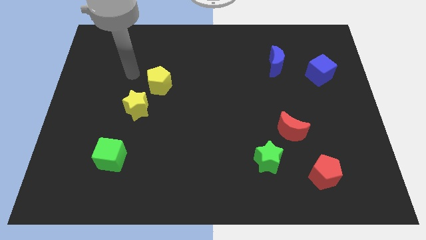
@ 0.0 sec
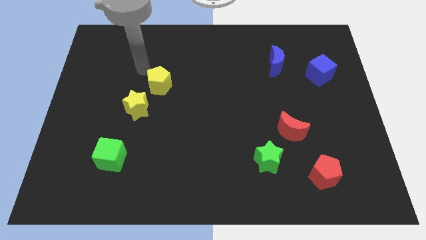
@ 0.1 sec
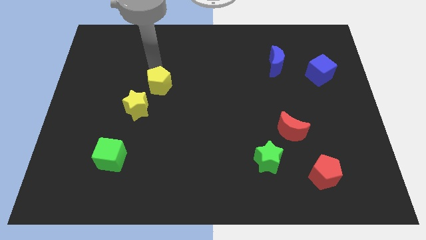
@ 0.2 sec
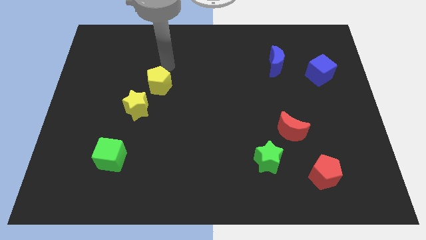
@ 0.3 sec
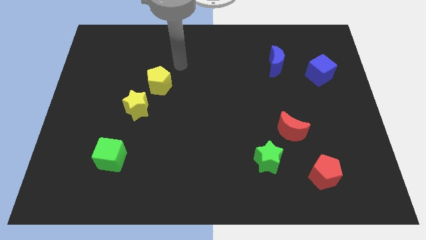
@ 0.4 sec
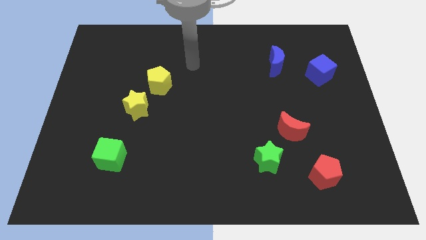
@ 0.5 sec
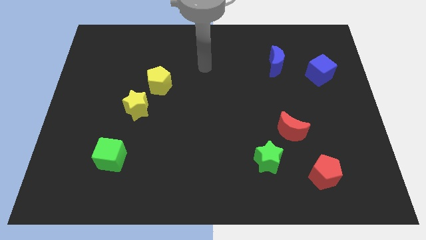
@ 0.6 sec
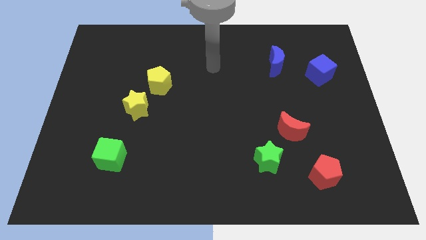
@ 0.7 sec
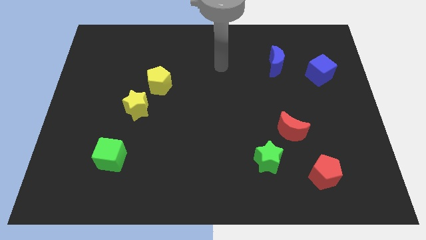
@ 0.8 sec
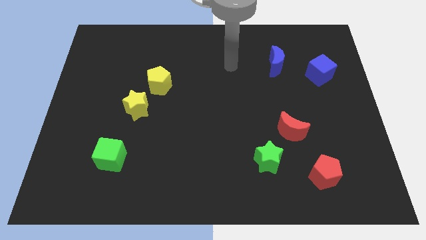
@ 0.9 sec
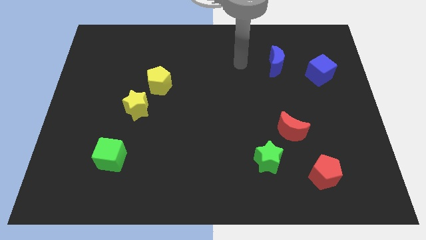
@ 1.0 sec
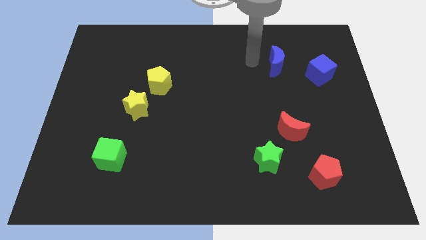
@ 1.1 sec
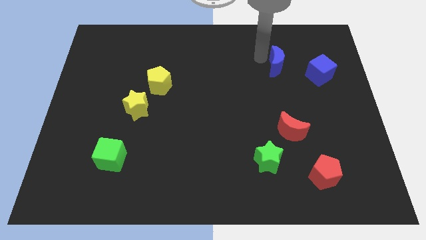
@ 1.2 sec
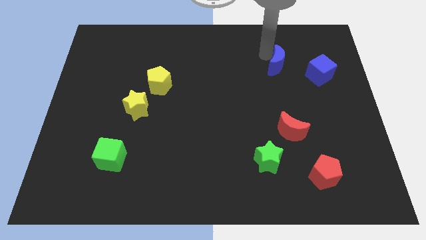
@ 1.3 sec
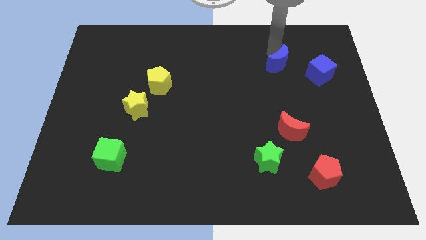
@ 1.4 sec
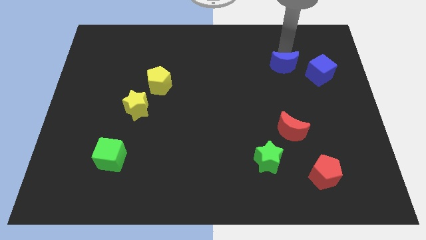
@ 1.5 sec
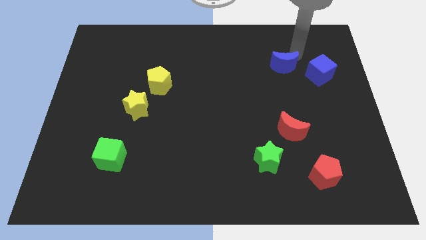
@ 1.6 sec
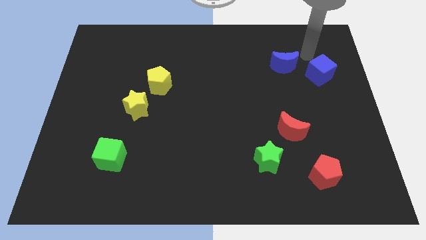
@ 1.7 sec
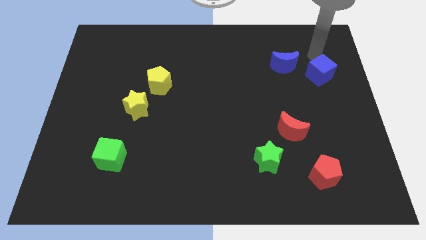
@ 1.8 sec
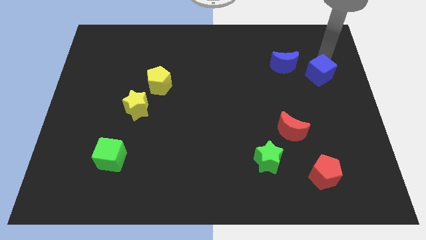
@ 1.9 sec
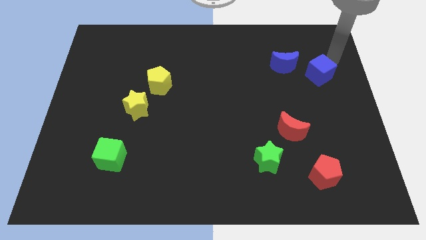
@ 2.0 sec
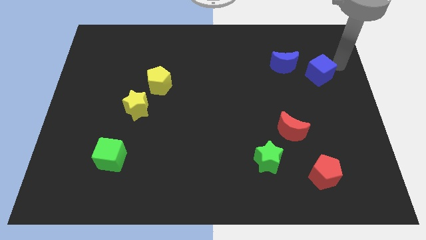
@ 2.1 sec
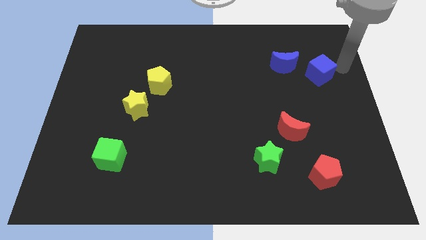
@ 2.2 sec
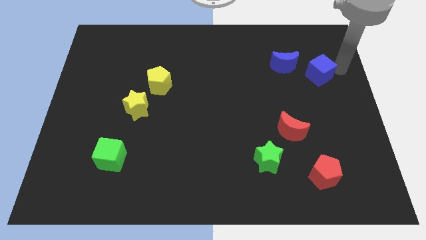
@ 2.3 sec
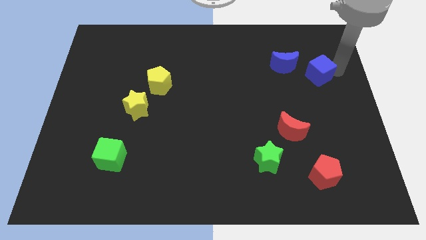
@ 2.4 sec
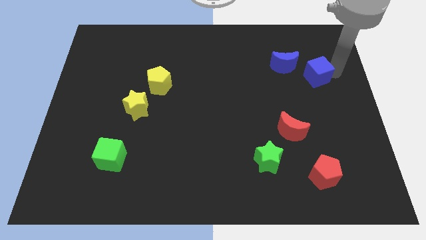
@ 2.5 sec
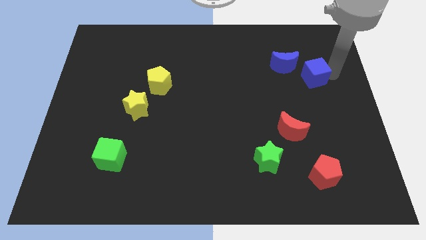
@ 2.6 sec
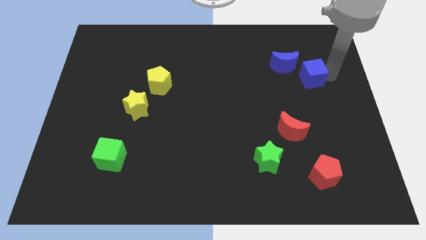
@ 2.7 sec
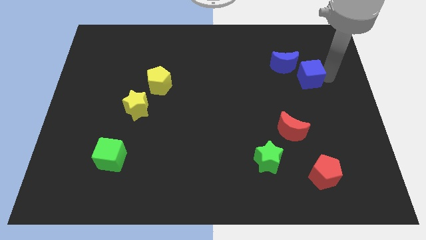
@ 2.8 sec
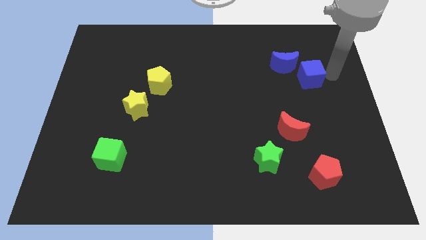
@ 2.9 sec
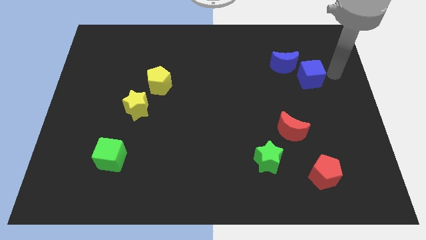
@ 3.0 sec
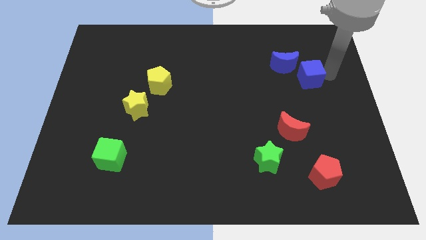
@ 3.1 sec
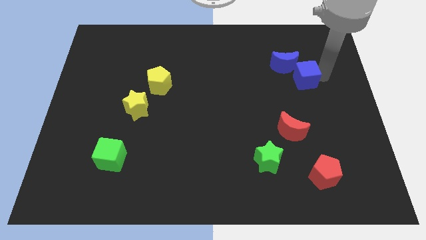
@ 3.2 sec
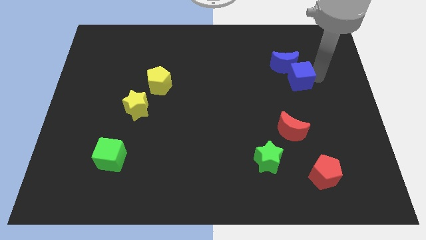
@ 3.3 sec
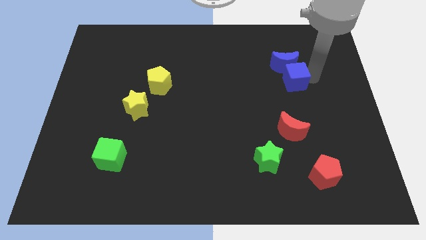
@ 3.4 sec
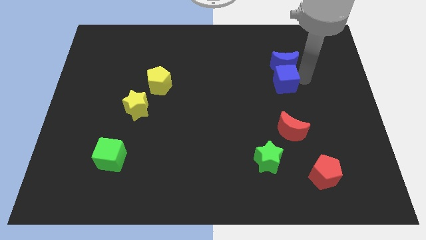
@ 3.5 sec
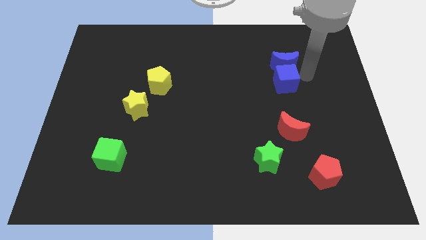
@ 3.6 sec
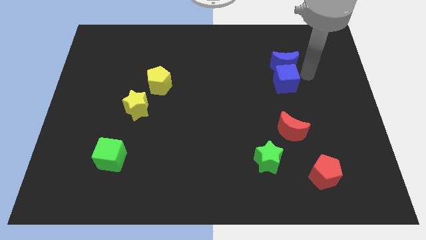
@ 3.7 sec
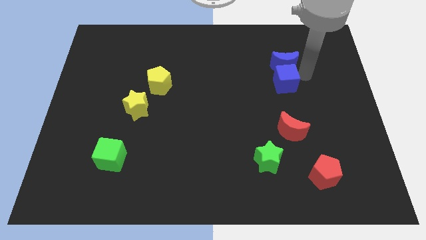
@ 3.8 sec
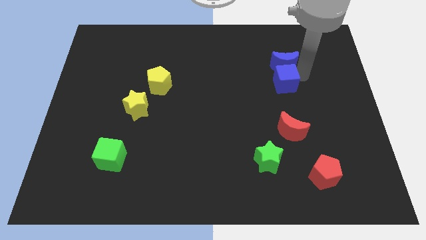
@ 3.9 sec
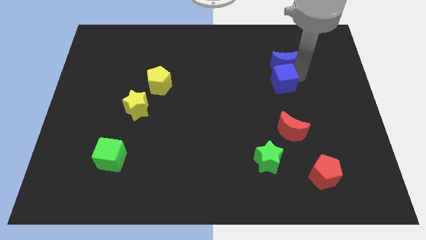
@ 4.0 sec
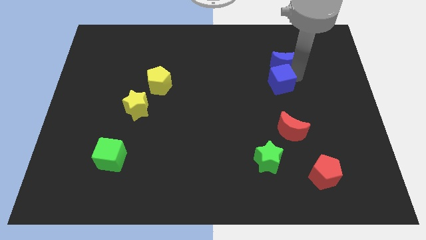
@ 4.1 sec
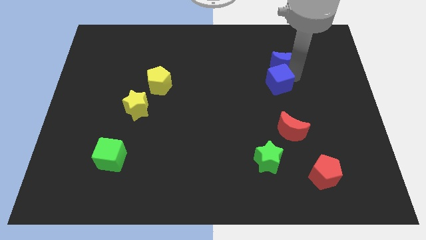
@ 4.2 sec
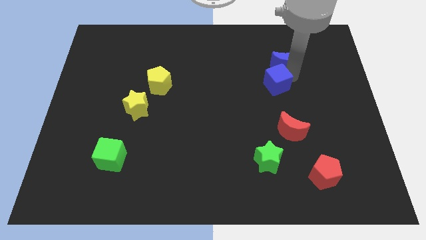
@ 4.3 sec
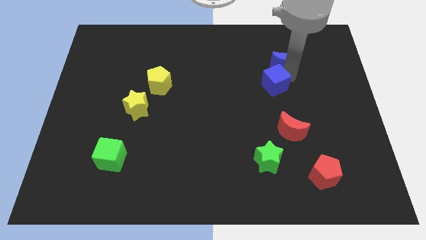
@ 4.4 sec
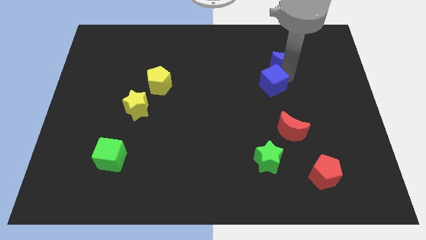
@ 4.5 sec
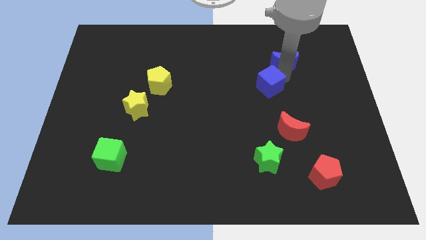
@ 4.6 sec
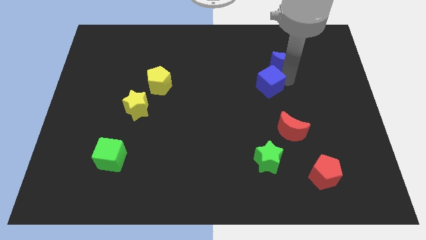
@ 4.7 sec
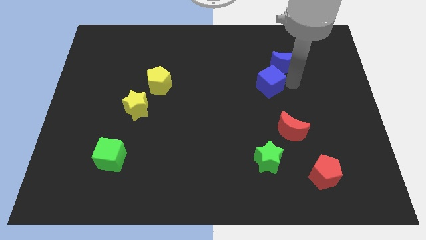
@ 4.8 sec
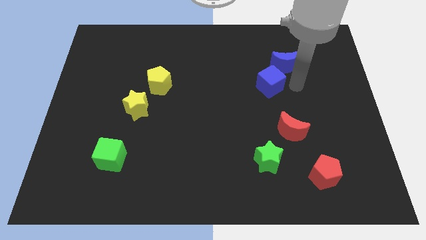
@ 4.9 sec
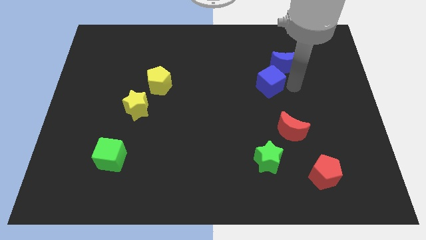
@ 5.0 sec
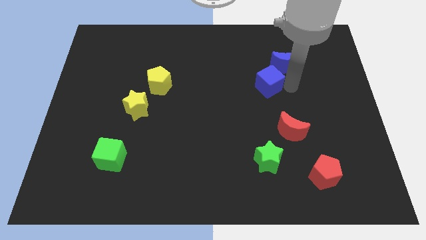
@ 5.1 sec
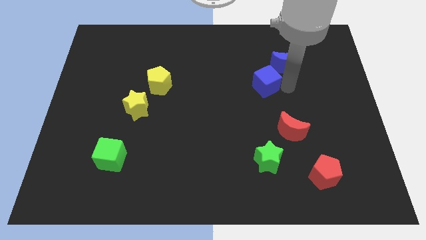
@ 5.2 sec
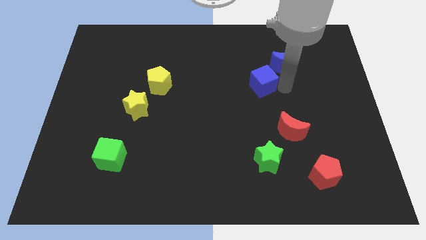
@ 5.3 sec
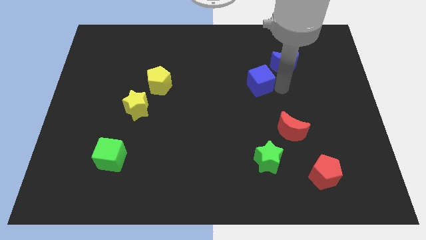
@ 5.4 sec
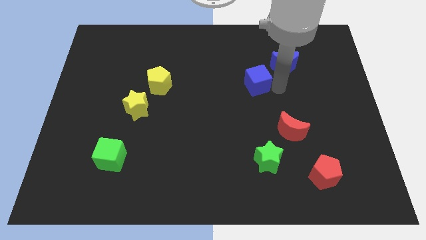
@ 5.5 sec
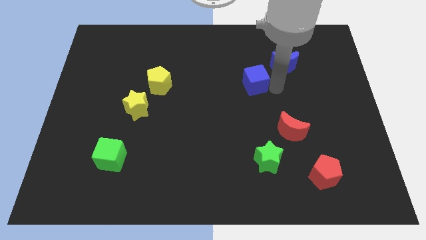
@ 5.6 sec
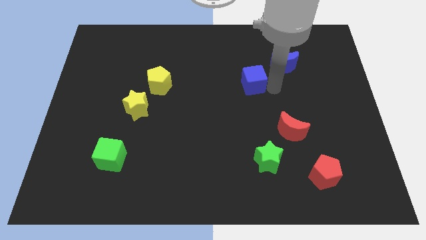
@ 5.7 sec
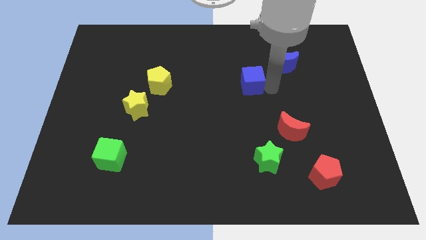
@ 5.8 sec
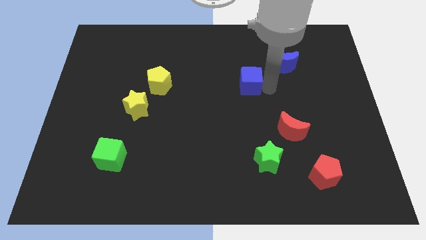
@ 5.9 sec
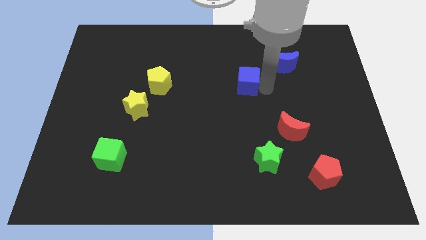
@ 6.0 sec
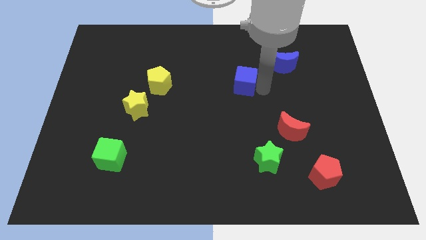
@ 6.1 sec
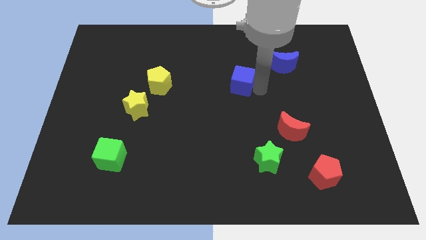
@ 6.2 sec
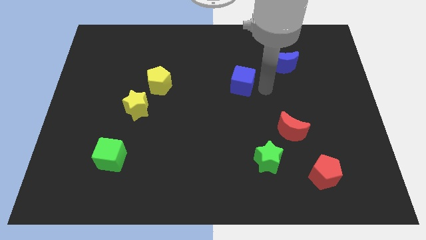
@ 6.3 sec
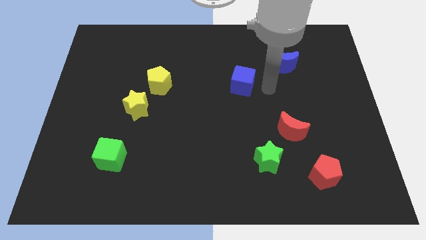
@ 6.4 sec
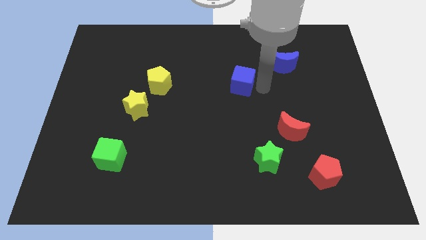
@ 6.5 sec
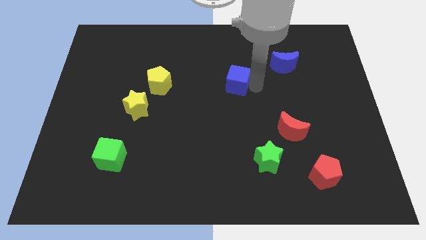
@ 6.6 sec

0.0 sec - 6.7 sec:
push the blue cube left

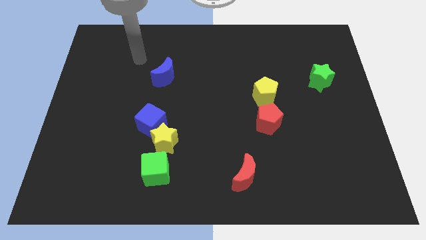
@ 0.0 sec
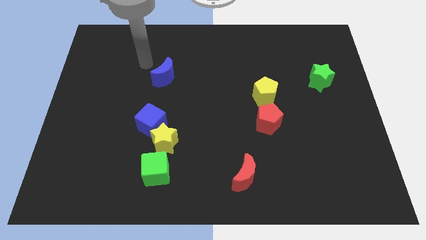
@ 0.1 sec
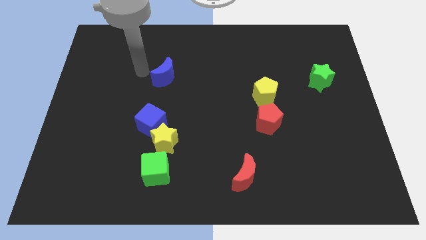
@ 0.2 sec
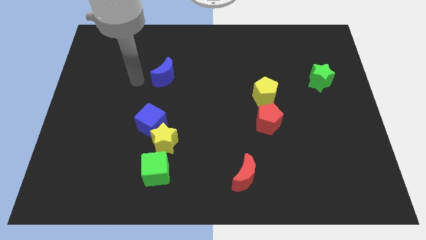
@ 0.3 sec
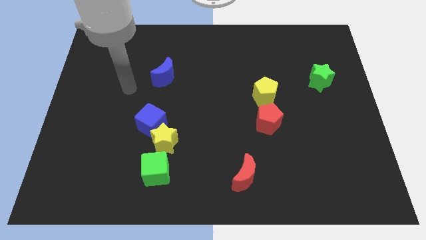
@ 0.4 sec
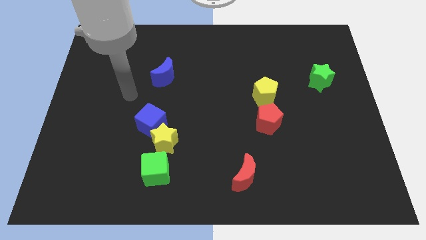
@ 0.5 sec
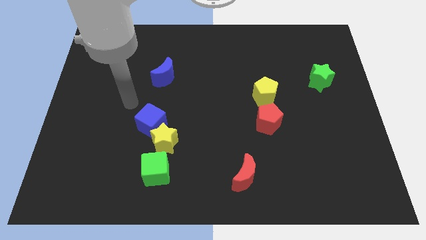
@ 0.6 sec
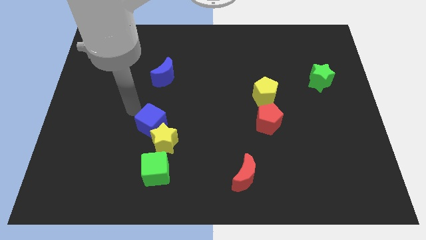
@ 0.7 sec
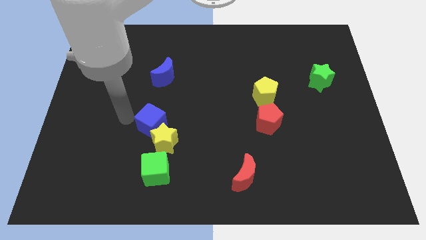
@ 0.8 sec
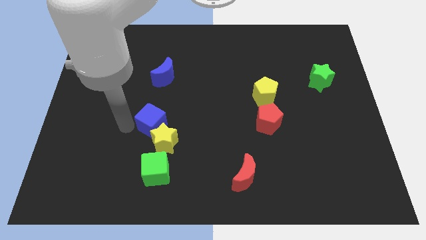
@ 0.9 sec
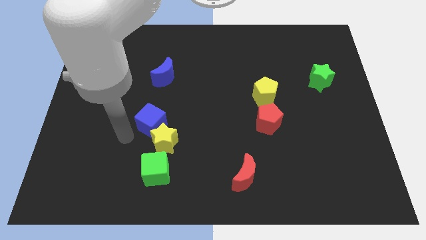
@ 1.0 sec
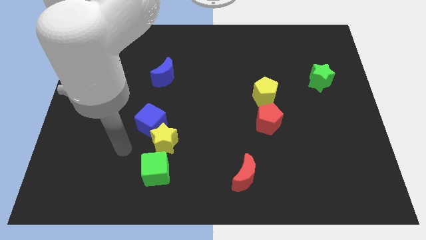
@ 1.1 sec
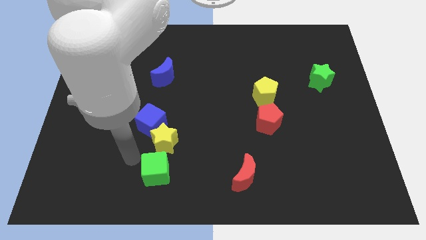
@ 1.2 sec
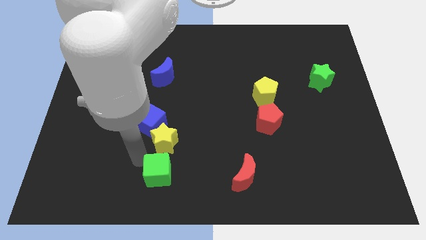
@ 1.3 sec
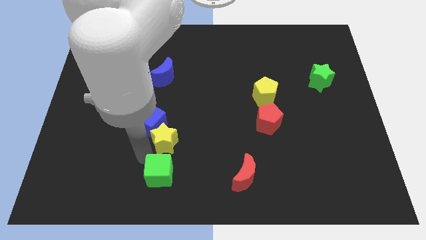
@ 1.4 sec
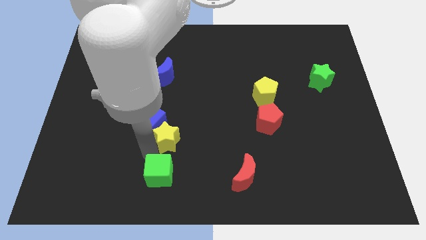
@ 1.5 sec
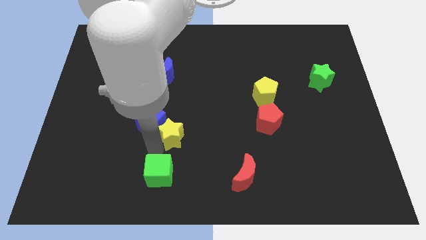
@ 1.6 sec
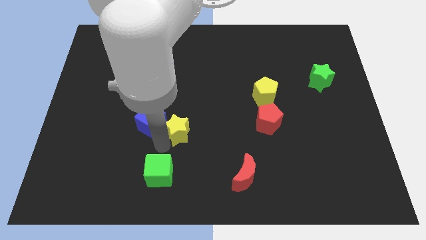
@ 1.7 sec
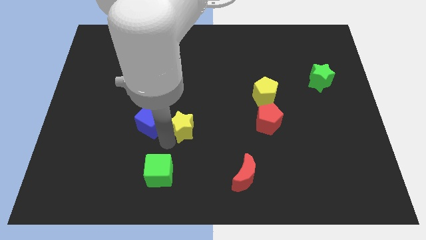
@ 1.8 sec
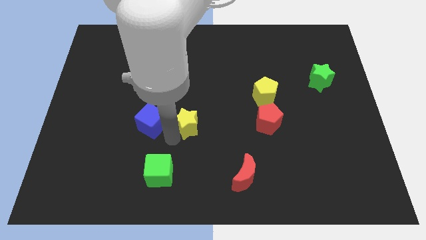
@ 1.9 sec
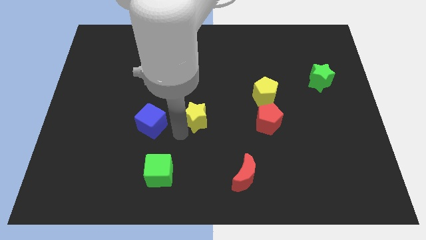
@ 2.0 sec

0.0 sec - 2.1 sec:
slightly push the yellow star upwards and then right
